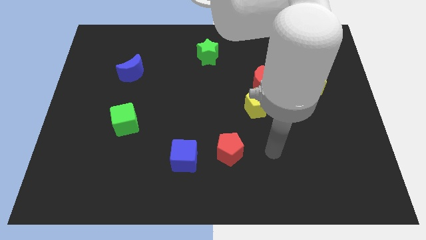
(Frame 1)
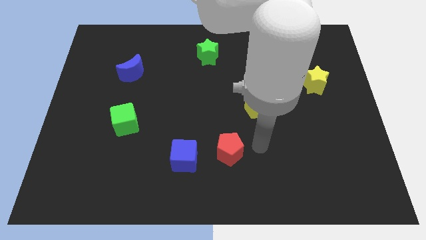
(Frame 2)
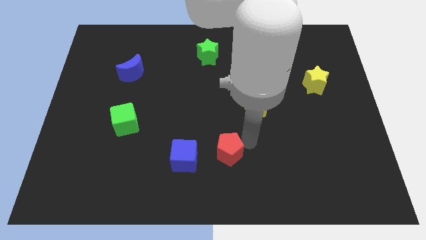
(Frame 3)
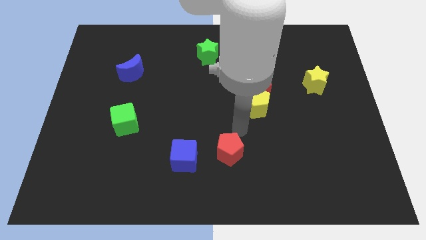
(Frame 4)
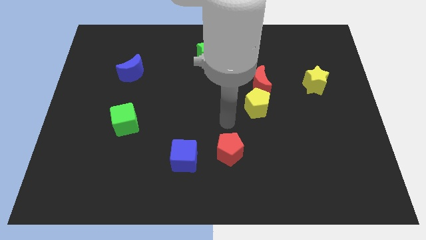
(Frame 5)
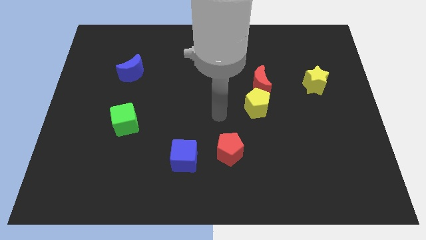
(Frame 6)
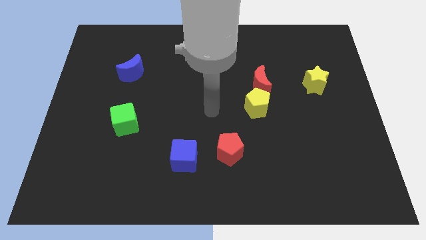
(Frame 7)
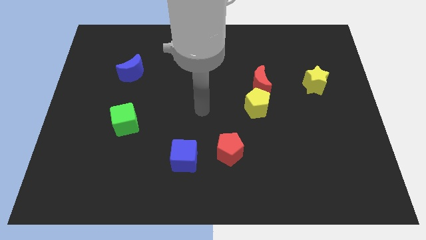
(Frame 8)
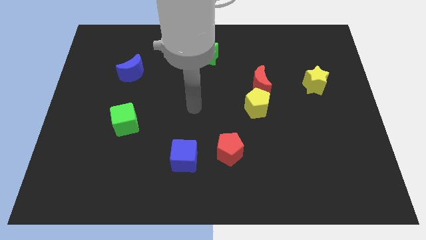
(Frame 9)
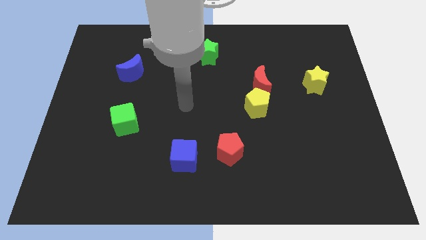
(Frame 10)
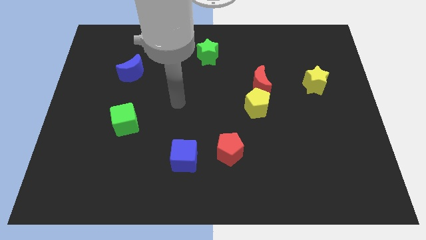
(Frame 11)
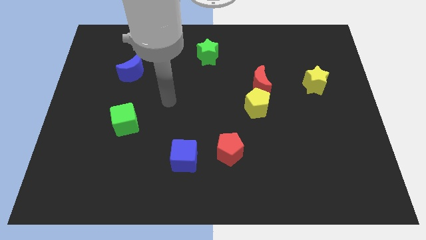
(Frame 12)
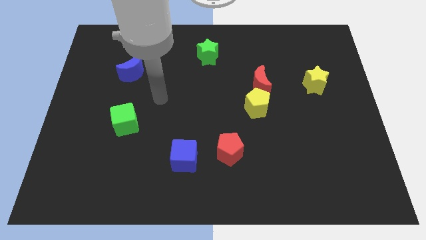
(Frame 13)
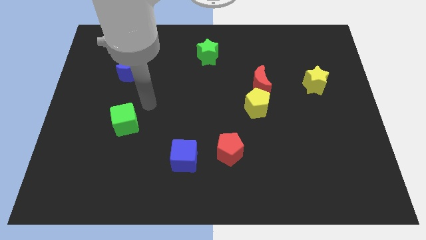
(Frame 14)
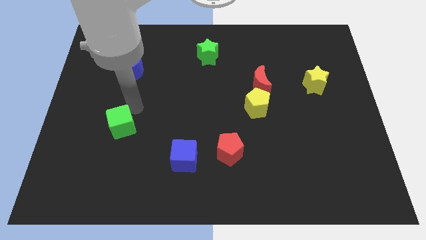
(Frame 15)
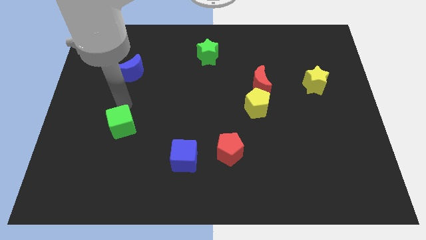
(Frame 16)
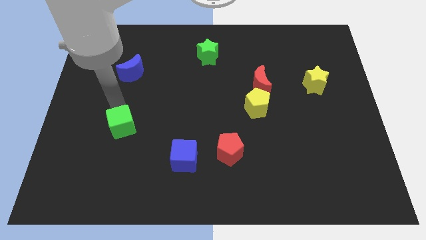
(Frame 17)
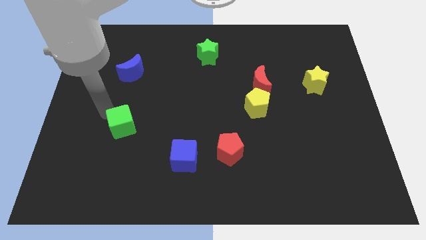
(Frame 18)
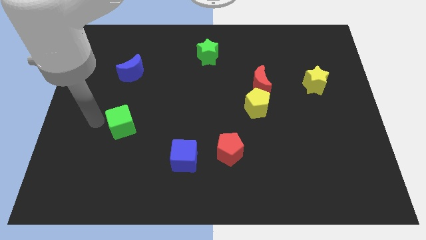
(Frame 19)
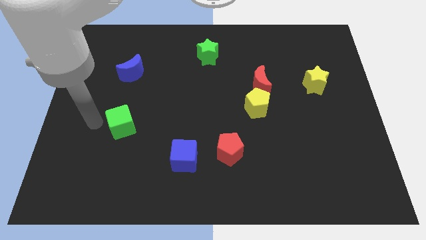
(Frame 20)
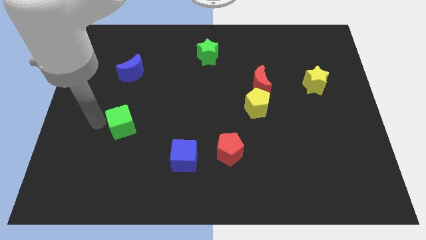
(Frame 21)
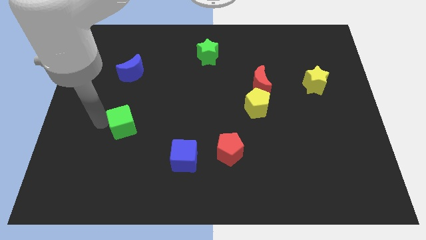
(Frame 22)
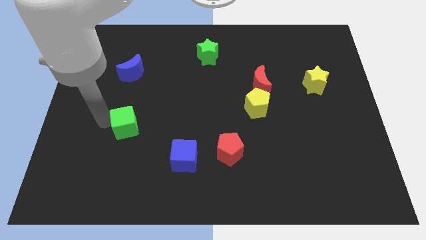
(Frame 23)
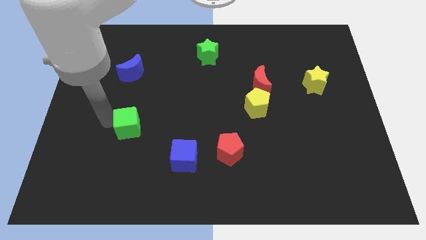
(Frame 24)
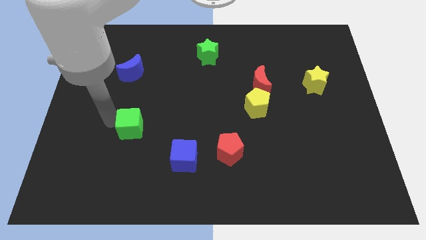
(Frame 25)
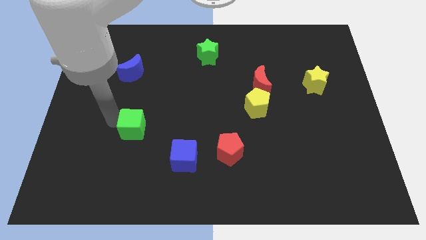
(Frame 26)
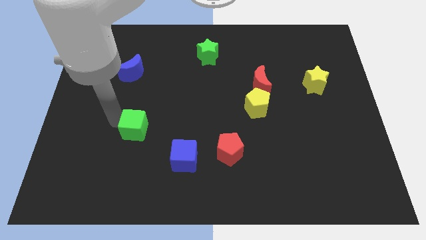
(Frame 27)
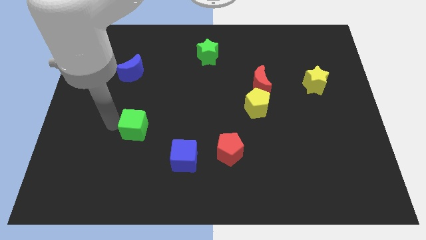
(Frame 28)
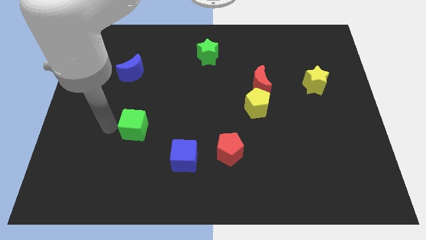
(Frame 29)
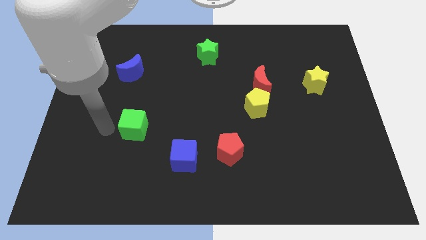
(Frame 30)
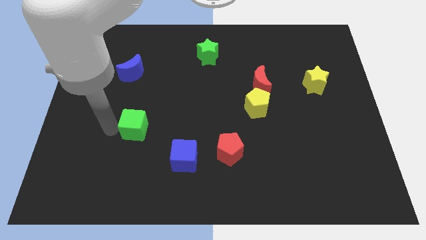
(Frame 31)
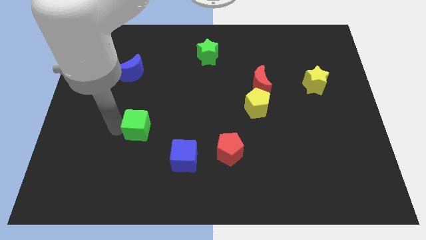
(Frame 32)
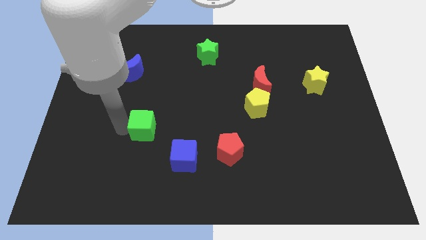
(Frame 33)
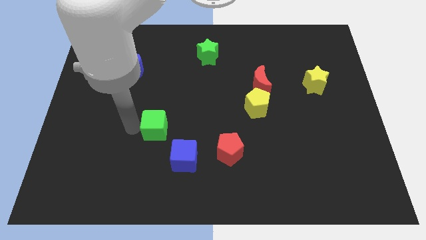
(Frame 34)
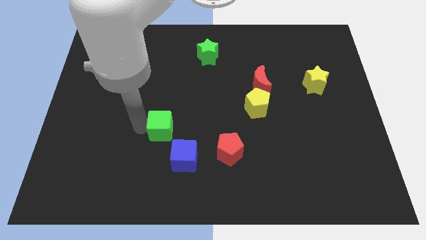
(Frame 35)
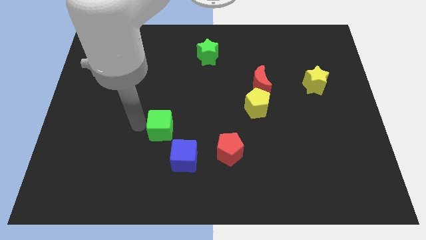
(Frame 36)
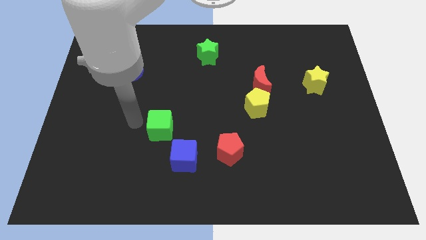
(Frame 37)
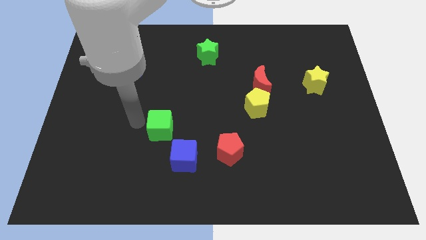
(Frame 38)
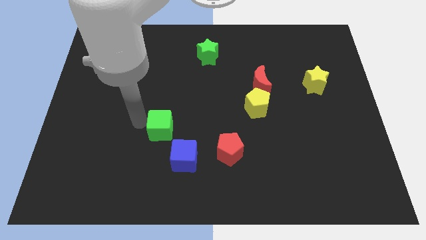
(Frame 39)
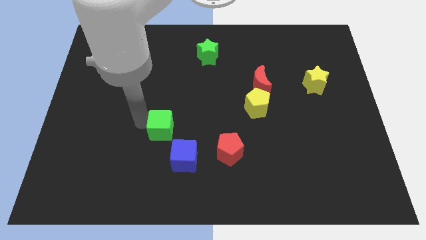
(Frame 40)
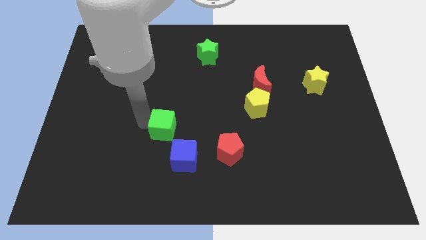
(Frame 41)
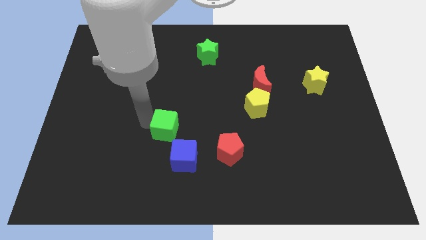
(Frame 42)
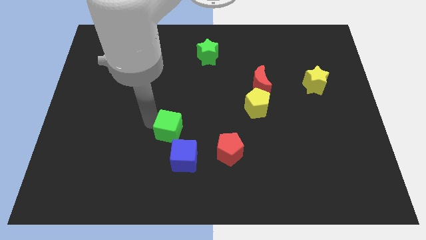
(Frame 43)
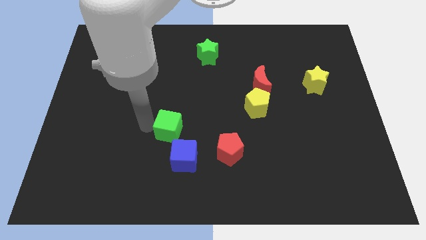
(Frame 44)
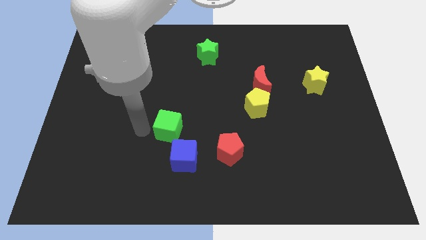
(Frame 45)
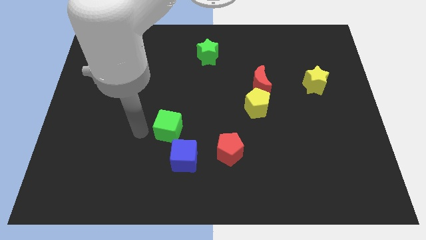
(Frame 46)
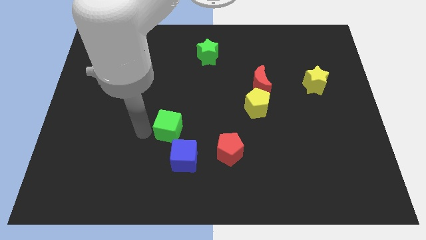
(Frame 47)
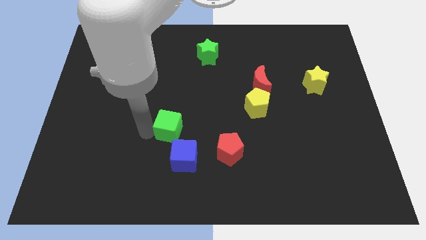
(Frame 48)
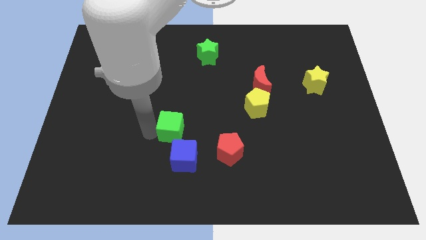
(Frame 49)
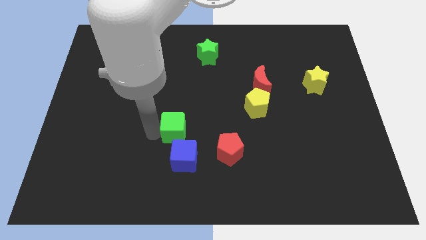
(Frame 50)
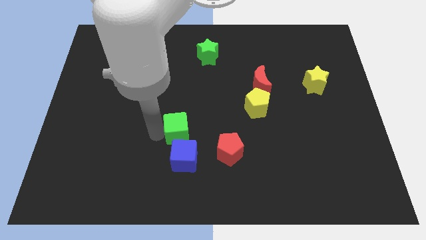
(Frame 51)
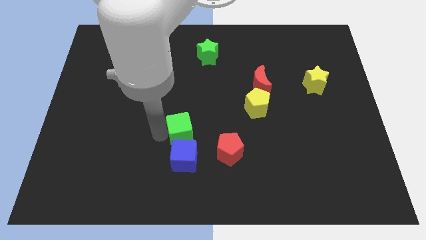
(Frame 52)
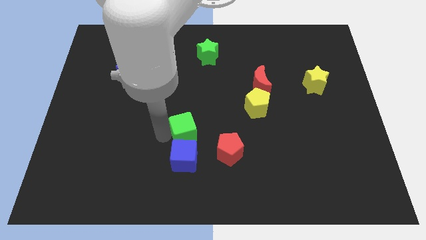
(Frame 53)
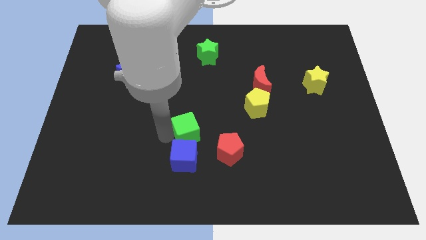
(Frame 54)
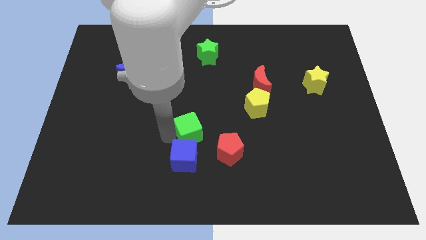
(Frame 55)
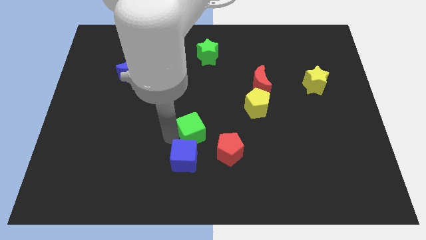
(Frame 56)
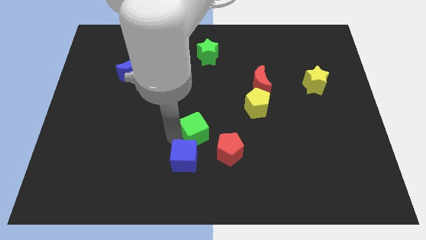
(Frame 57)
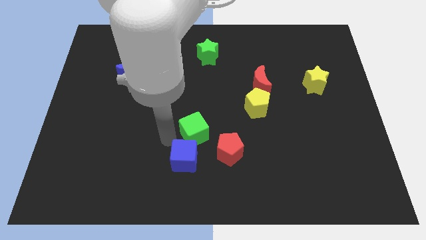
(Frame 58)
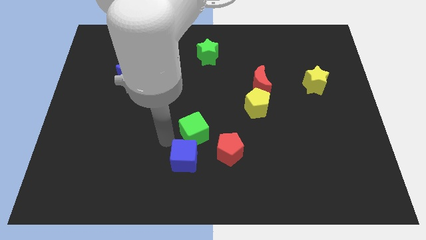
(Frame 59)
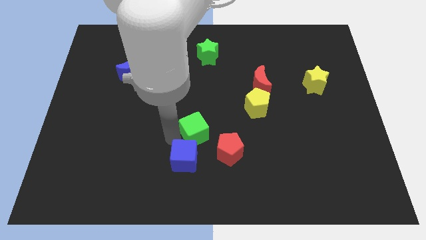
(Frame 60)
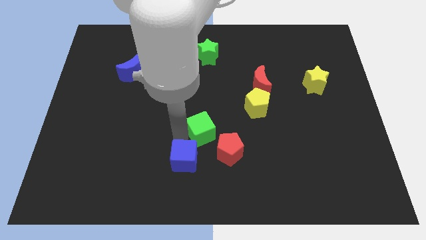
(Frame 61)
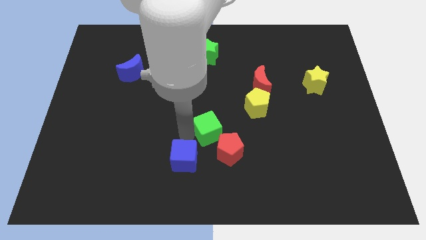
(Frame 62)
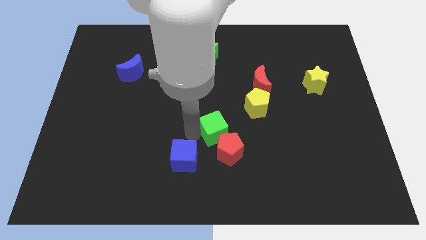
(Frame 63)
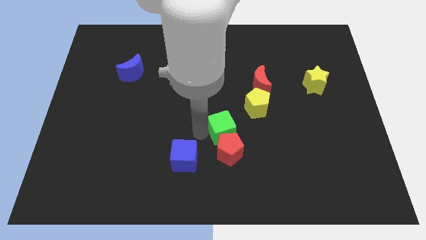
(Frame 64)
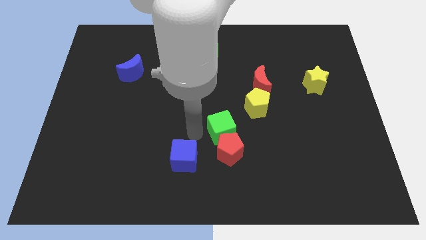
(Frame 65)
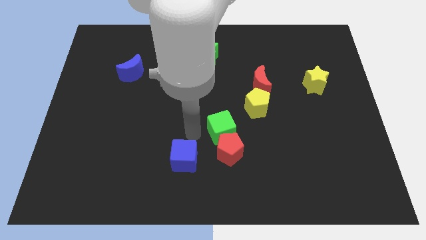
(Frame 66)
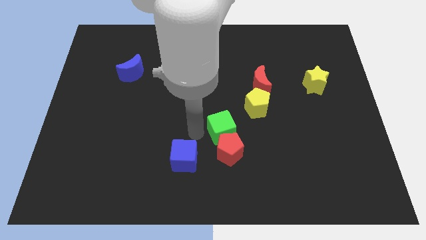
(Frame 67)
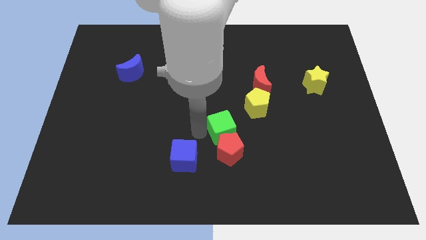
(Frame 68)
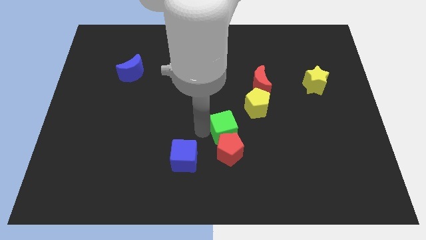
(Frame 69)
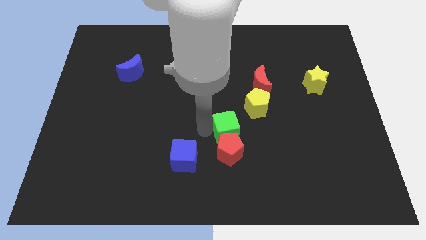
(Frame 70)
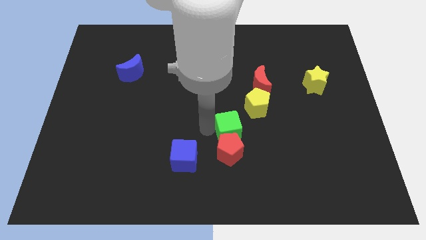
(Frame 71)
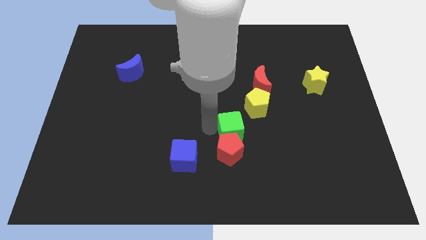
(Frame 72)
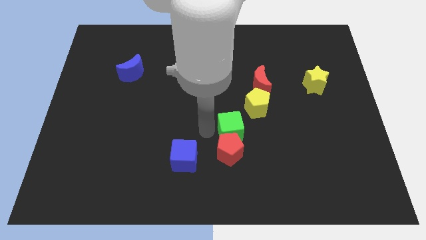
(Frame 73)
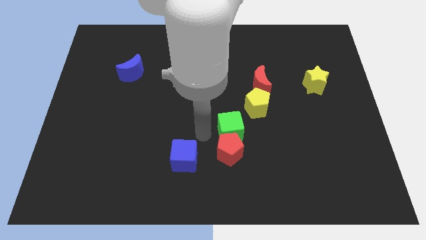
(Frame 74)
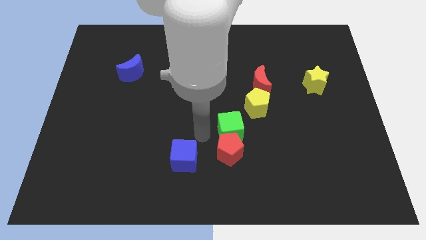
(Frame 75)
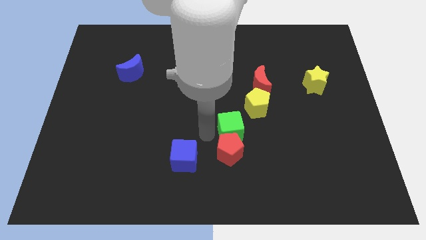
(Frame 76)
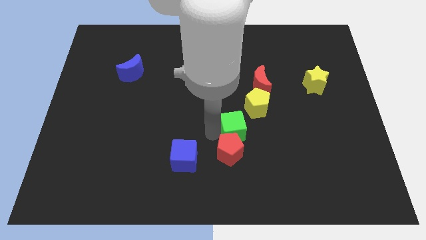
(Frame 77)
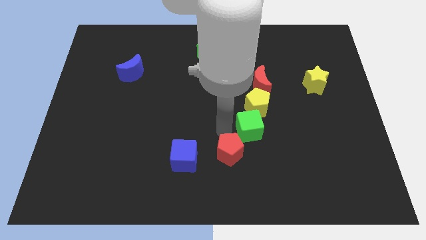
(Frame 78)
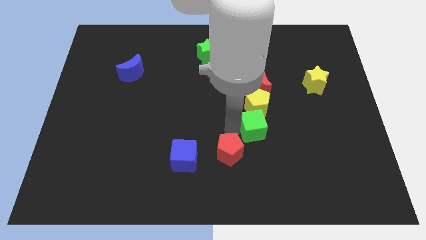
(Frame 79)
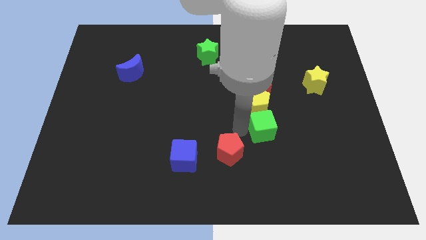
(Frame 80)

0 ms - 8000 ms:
move the green cube diagonally down and to the right of the yellow pentagon
